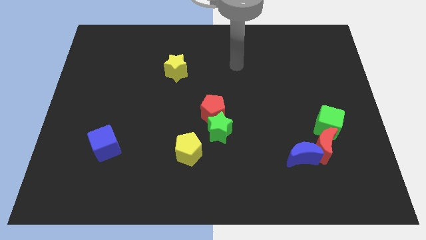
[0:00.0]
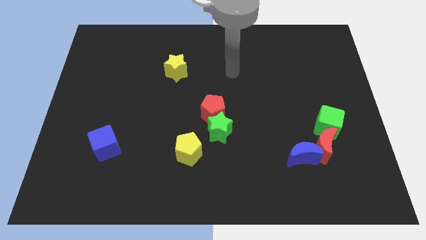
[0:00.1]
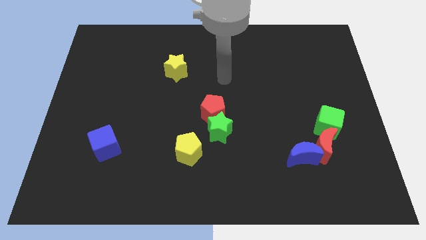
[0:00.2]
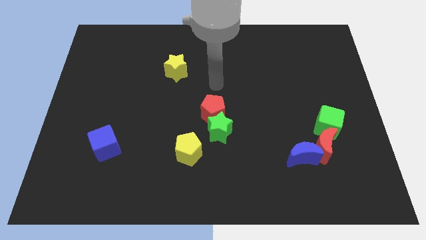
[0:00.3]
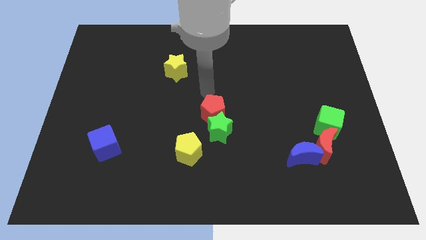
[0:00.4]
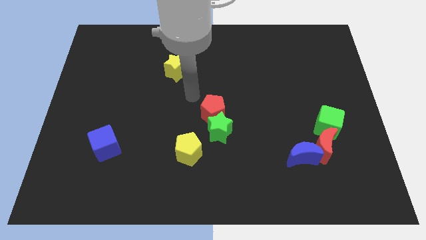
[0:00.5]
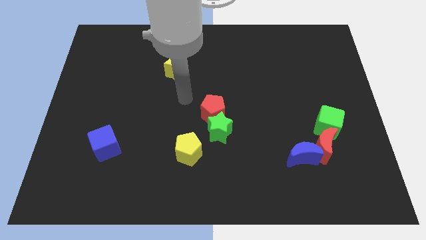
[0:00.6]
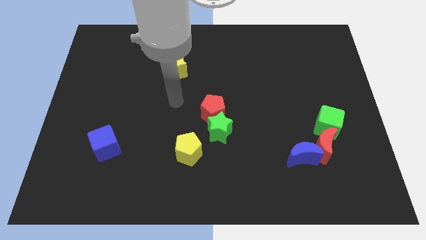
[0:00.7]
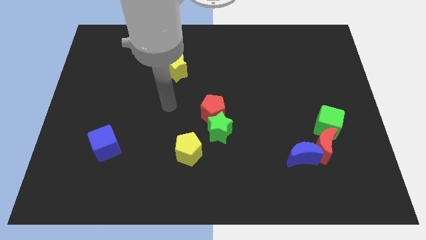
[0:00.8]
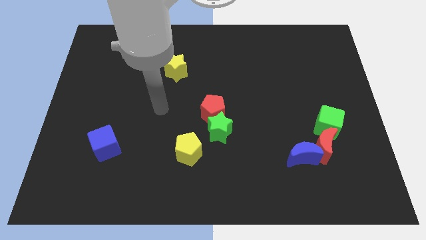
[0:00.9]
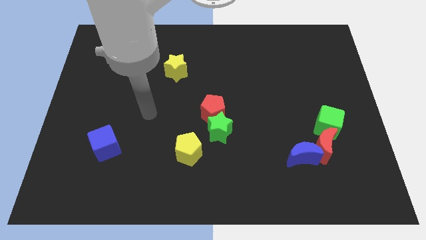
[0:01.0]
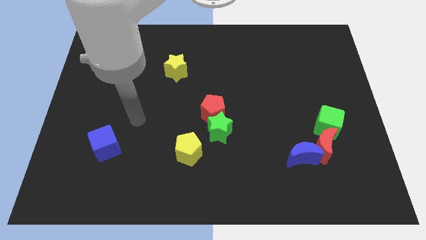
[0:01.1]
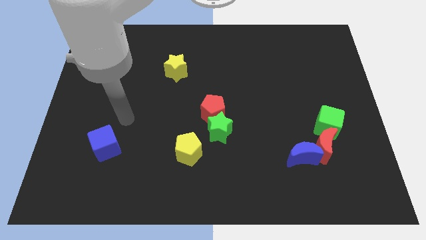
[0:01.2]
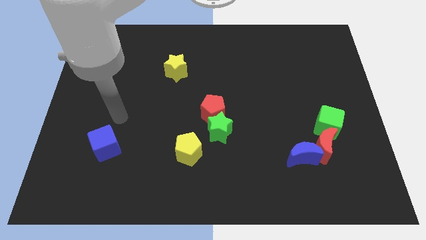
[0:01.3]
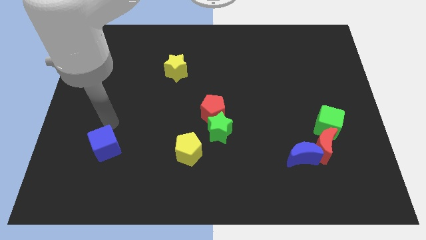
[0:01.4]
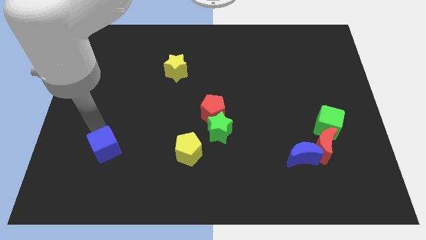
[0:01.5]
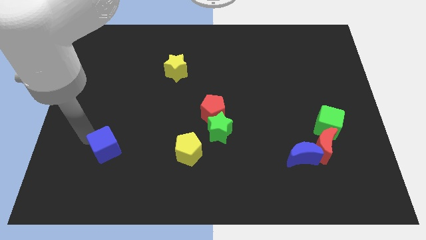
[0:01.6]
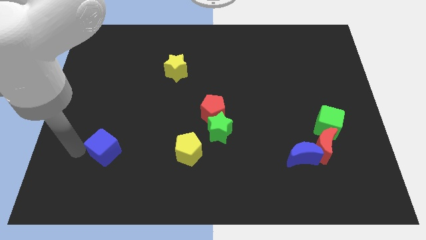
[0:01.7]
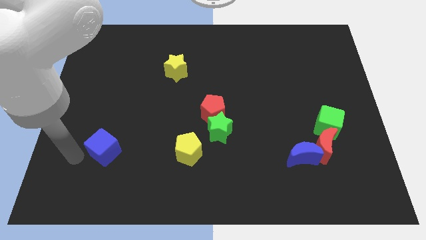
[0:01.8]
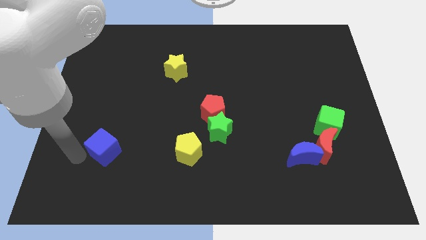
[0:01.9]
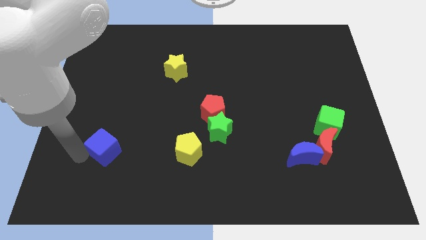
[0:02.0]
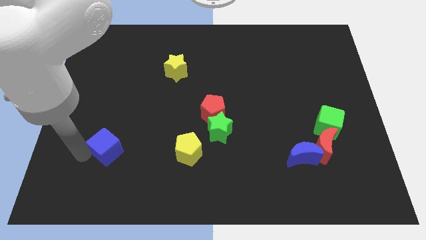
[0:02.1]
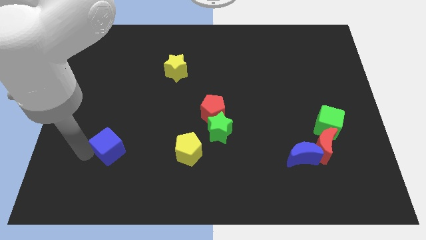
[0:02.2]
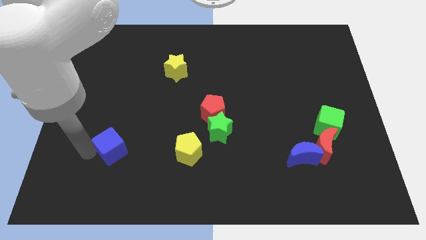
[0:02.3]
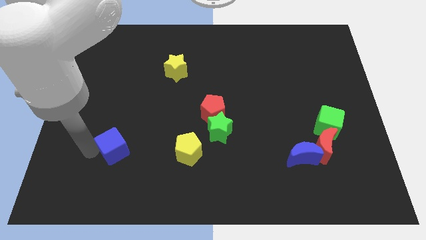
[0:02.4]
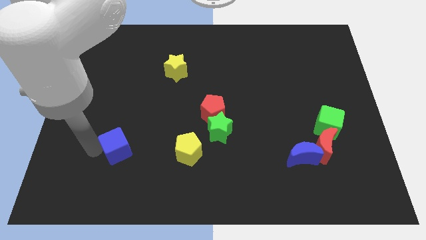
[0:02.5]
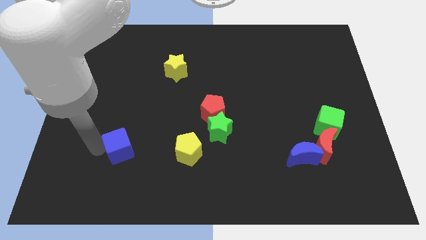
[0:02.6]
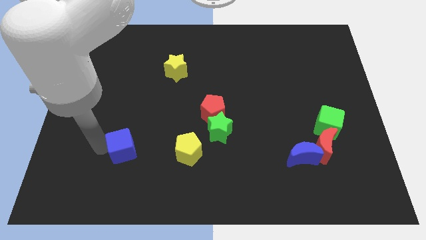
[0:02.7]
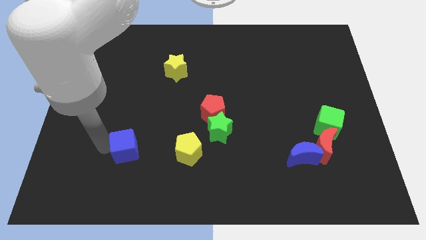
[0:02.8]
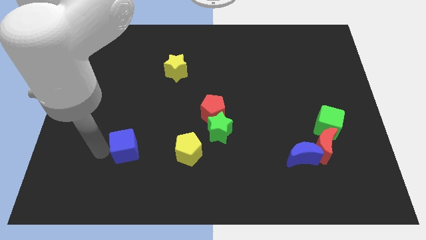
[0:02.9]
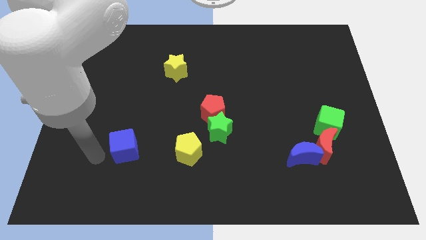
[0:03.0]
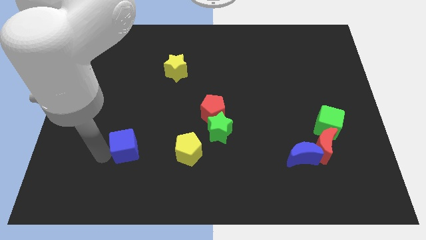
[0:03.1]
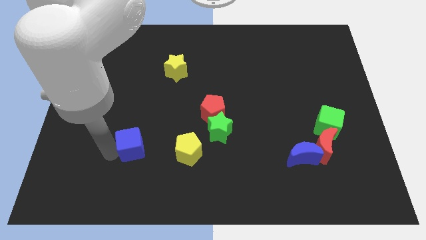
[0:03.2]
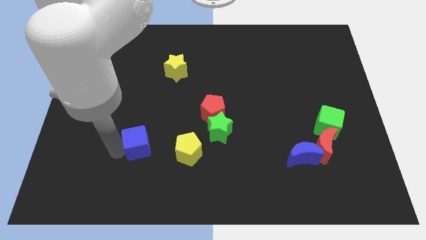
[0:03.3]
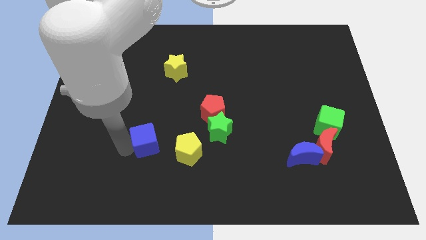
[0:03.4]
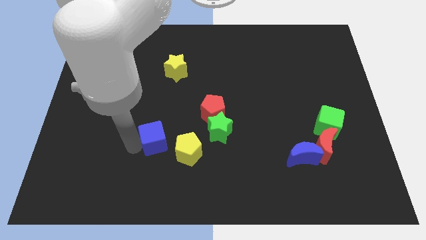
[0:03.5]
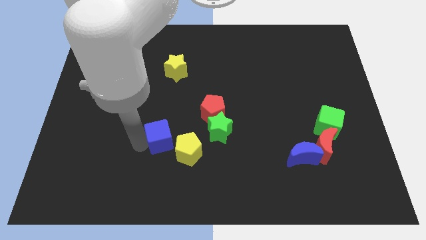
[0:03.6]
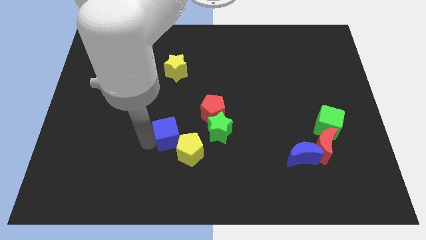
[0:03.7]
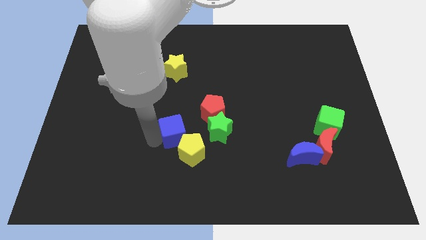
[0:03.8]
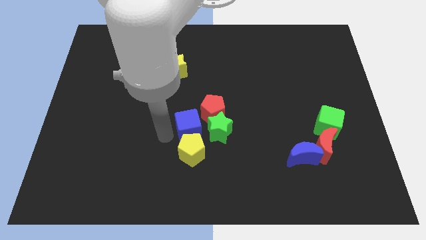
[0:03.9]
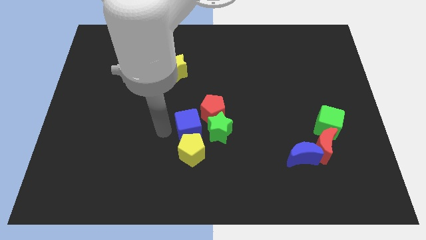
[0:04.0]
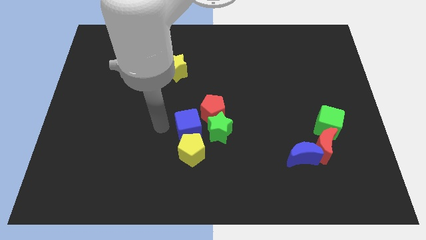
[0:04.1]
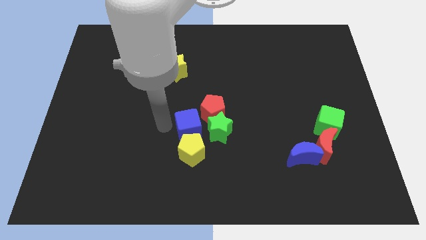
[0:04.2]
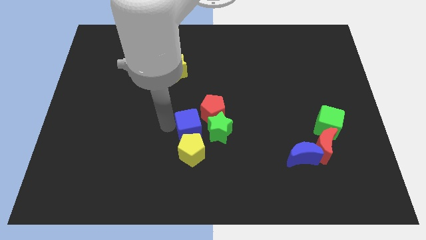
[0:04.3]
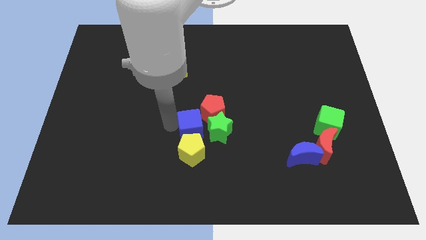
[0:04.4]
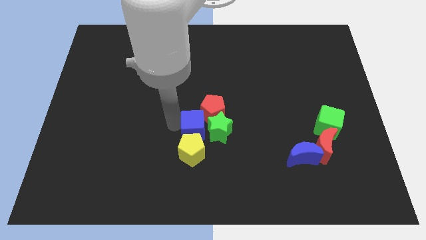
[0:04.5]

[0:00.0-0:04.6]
move the blue cube close to the green star

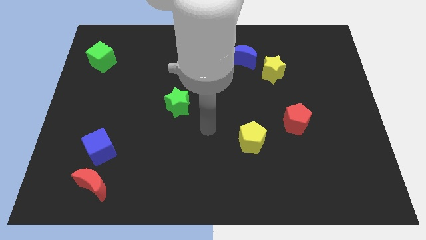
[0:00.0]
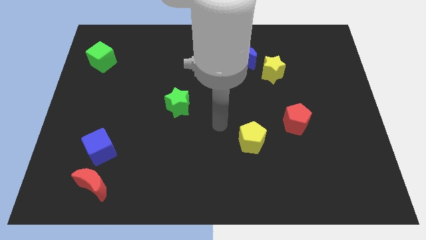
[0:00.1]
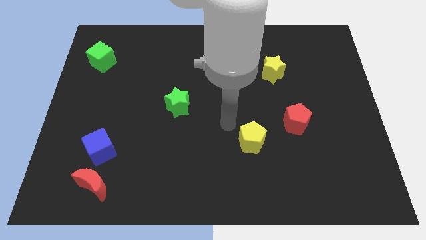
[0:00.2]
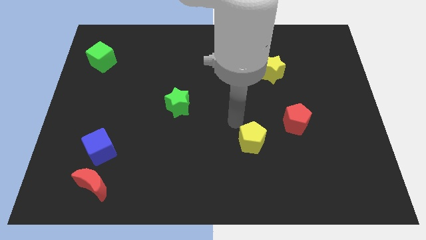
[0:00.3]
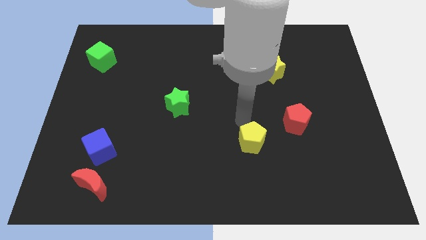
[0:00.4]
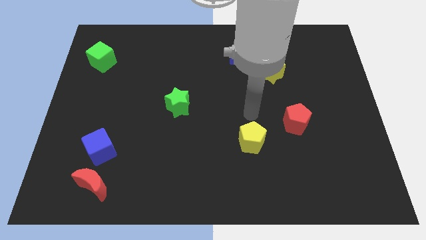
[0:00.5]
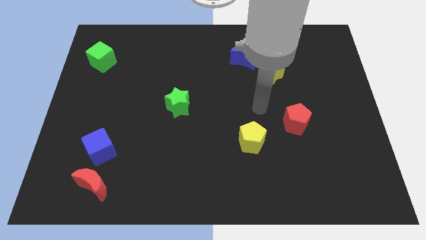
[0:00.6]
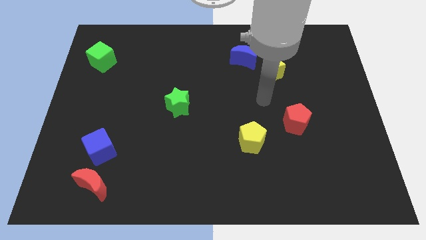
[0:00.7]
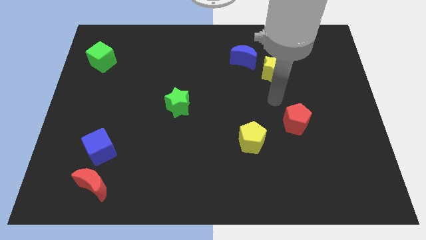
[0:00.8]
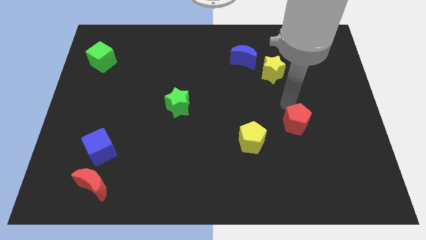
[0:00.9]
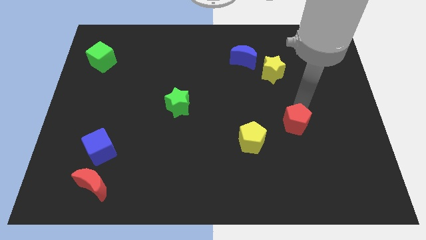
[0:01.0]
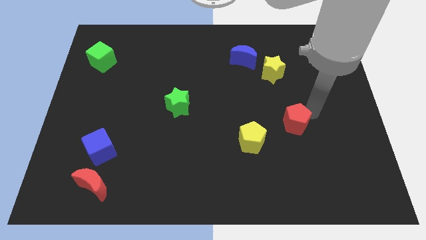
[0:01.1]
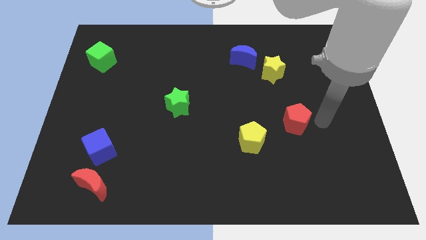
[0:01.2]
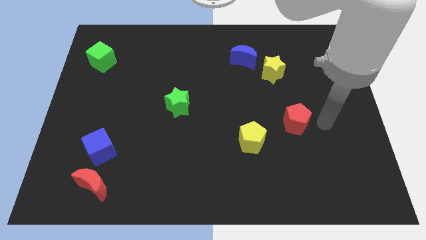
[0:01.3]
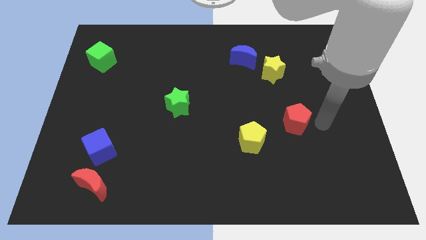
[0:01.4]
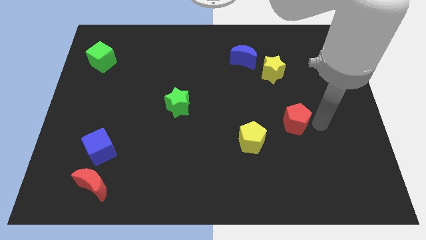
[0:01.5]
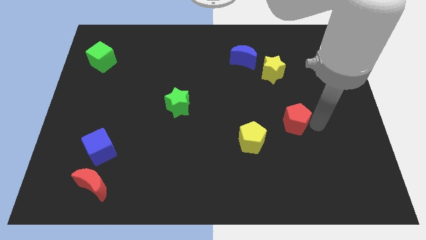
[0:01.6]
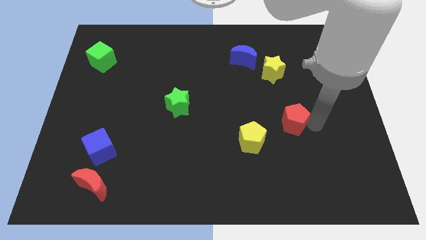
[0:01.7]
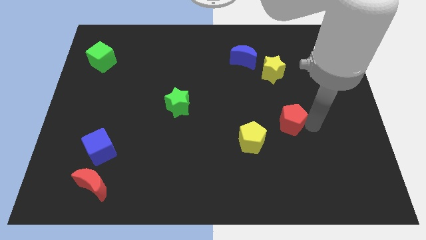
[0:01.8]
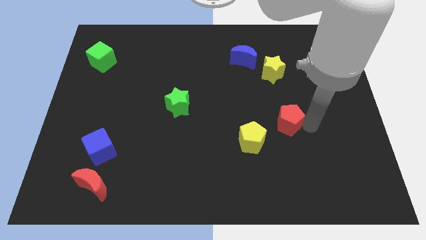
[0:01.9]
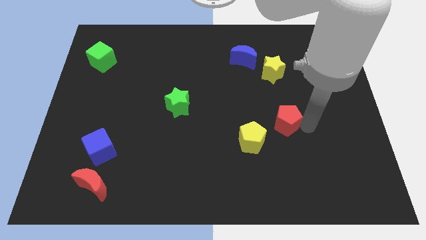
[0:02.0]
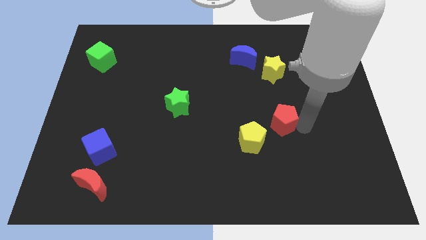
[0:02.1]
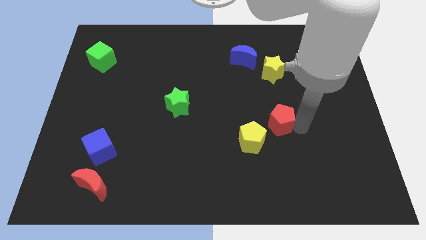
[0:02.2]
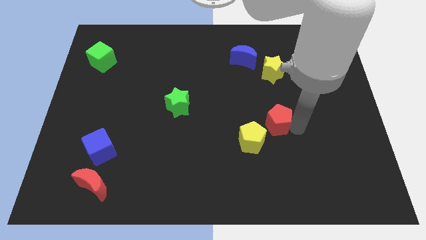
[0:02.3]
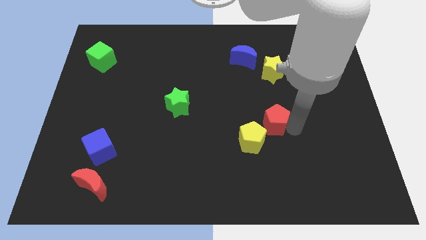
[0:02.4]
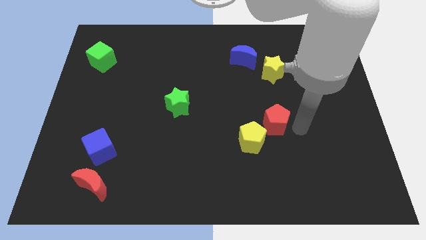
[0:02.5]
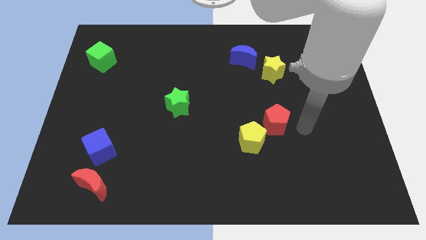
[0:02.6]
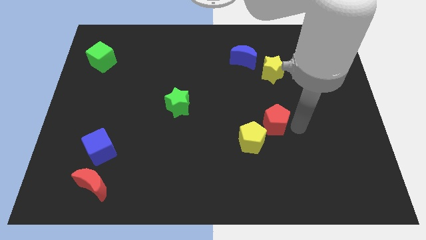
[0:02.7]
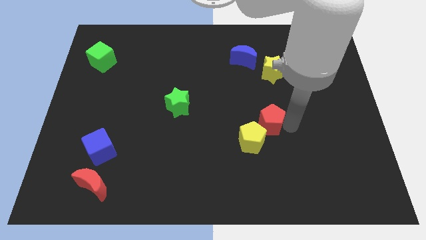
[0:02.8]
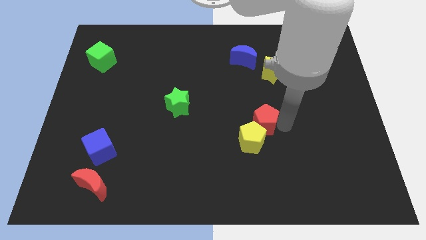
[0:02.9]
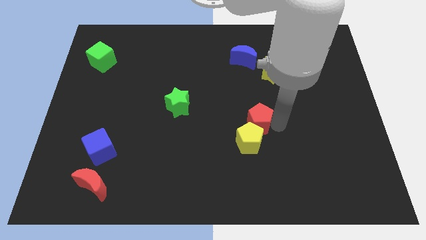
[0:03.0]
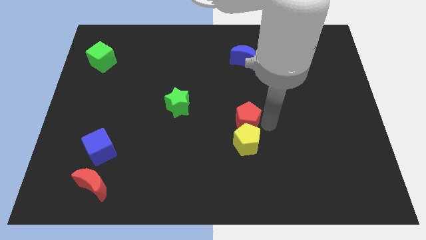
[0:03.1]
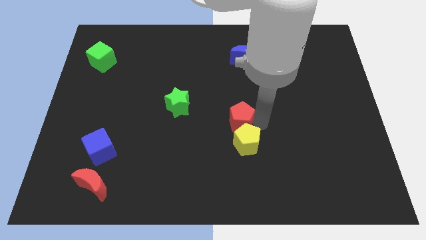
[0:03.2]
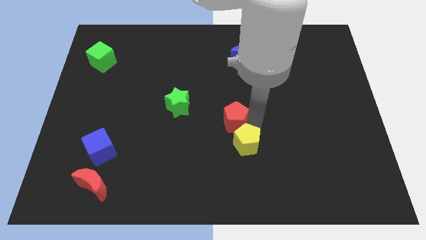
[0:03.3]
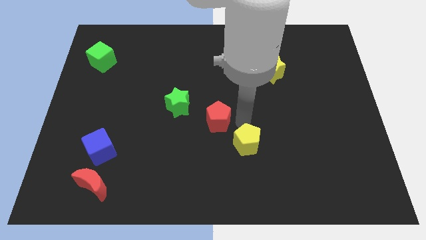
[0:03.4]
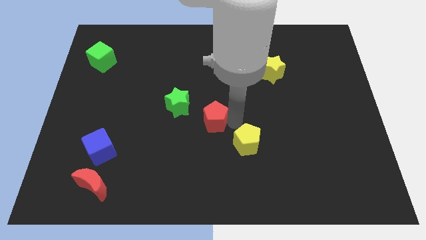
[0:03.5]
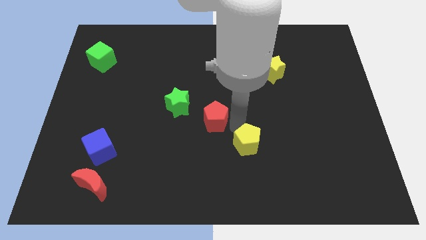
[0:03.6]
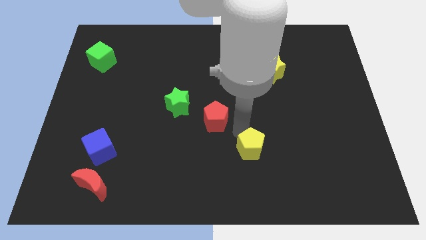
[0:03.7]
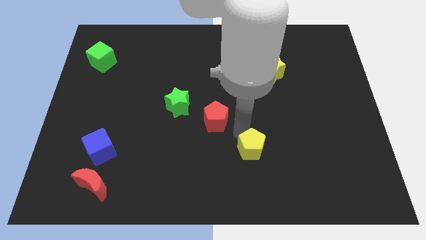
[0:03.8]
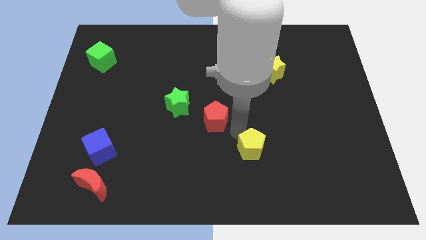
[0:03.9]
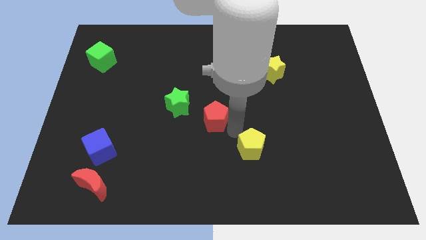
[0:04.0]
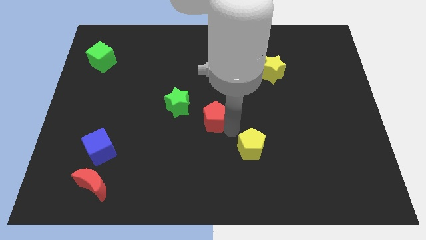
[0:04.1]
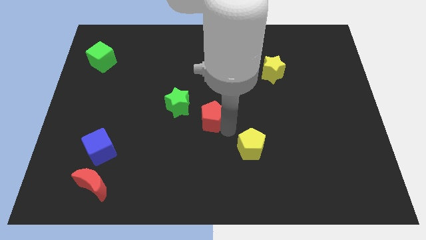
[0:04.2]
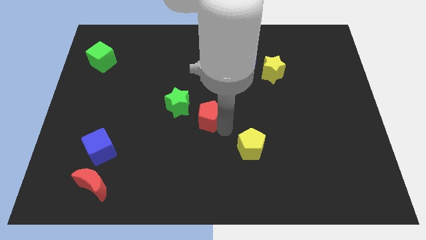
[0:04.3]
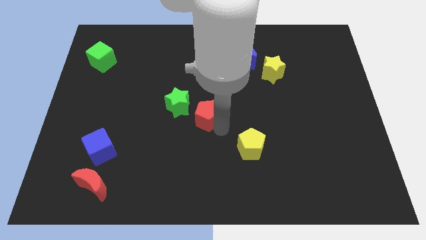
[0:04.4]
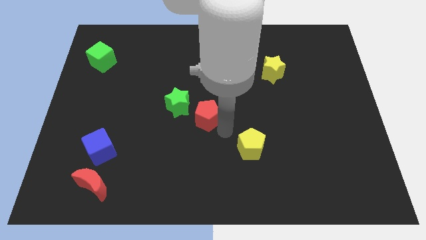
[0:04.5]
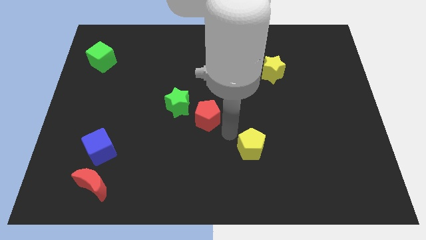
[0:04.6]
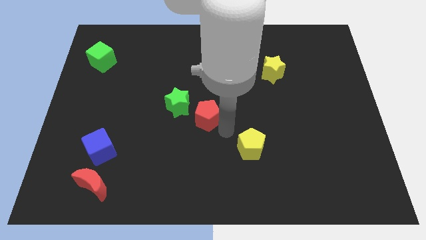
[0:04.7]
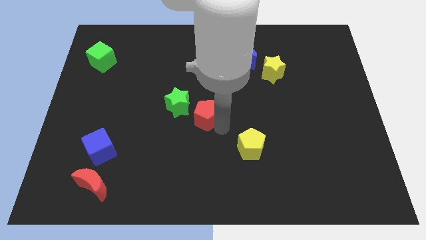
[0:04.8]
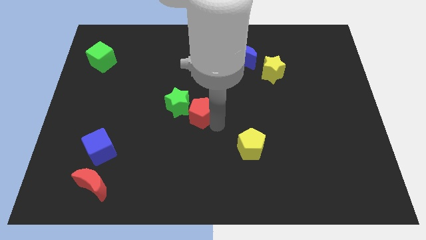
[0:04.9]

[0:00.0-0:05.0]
slide the red pentagon to the green star
